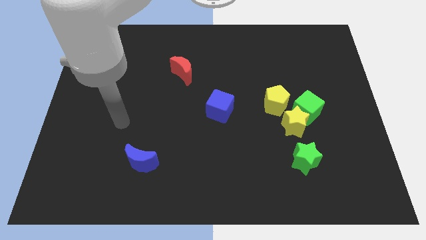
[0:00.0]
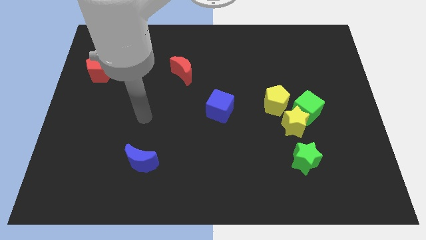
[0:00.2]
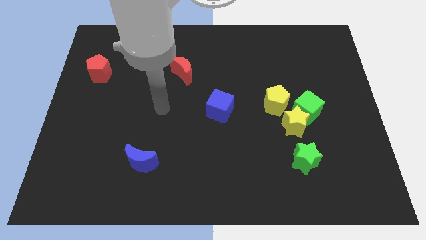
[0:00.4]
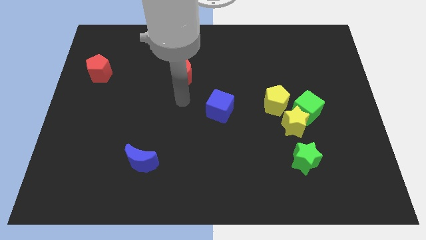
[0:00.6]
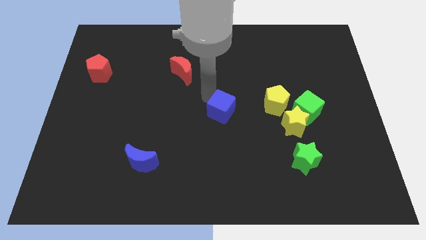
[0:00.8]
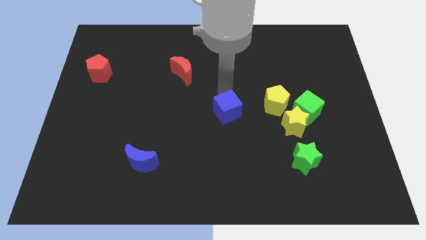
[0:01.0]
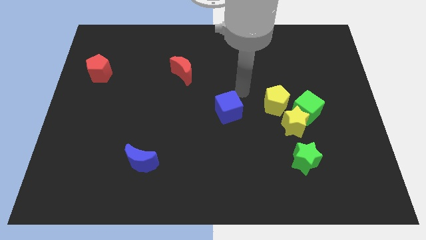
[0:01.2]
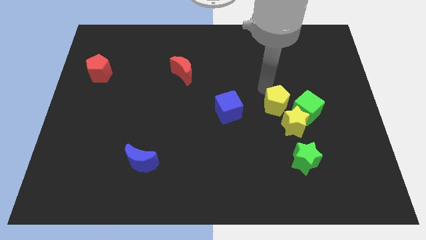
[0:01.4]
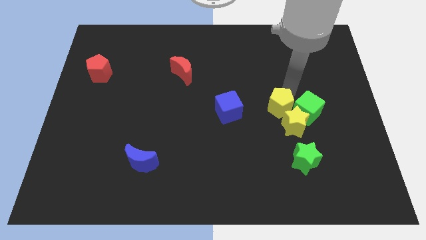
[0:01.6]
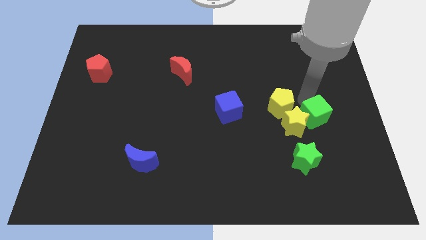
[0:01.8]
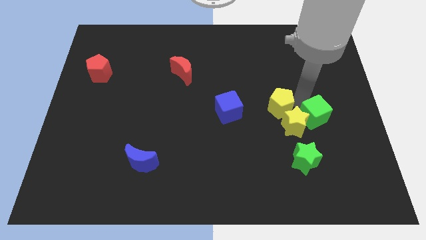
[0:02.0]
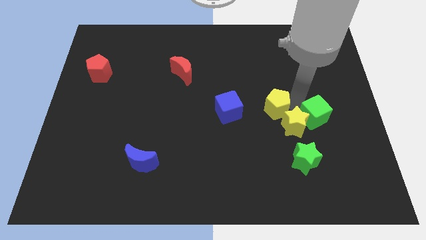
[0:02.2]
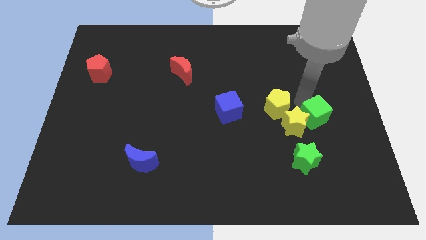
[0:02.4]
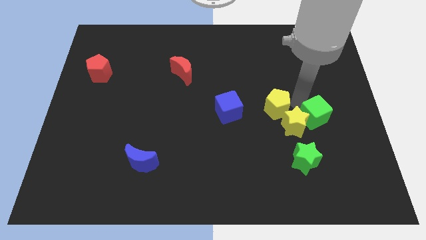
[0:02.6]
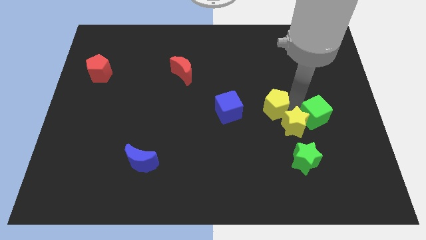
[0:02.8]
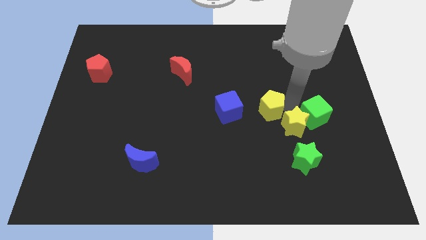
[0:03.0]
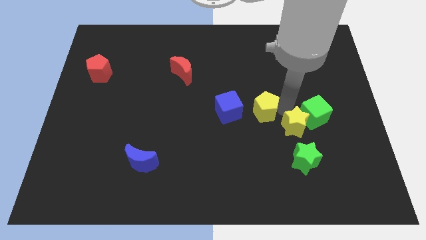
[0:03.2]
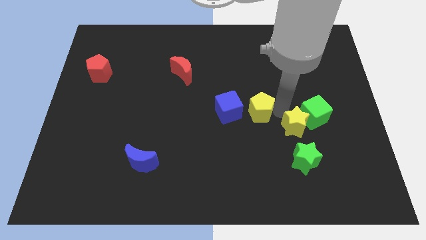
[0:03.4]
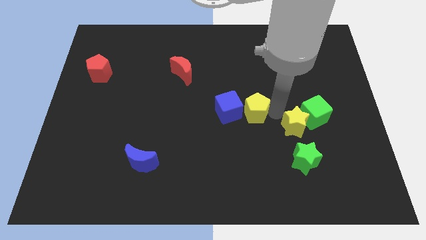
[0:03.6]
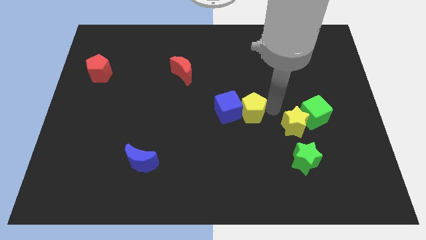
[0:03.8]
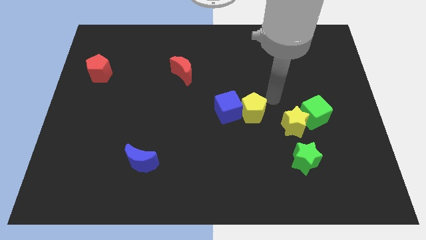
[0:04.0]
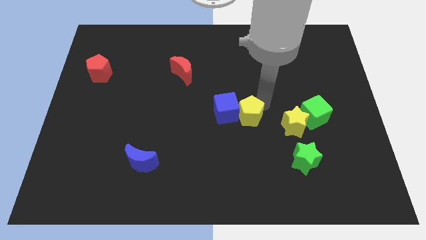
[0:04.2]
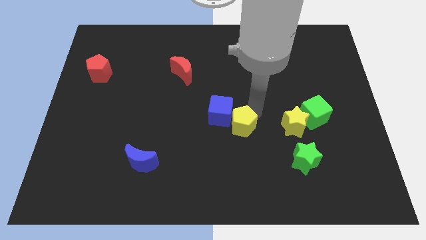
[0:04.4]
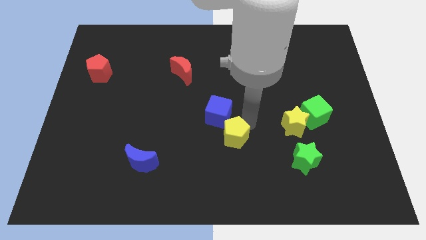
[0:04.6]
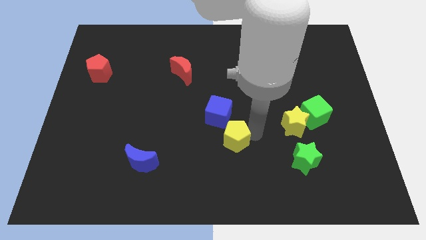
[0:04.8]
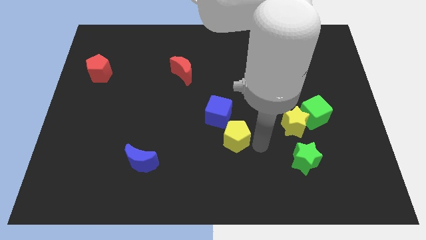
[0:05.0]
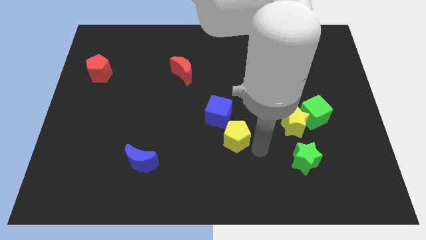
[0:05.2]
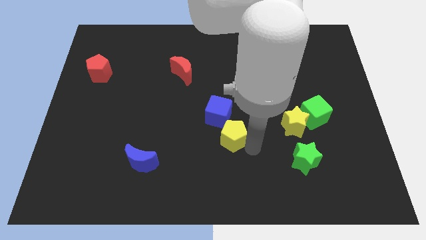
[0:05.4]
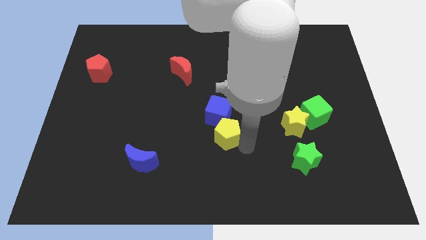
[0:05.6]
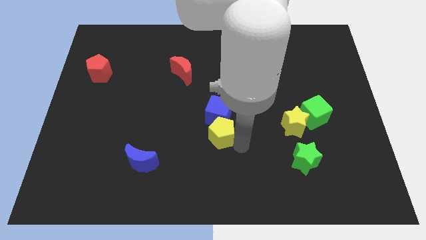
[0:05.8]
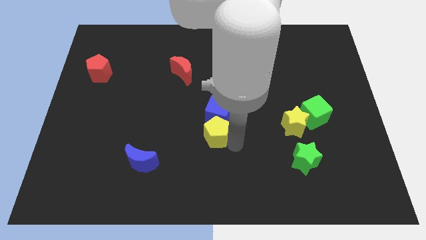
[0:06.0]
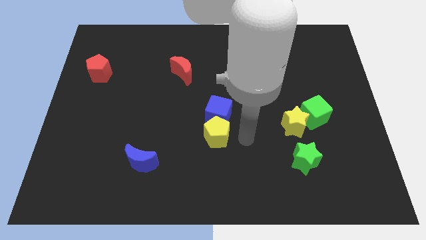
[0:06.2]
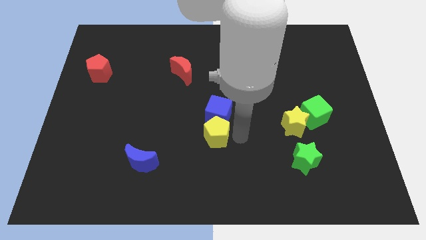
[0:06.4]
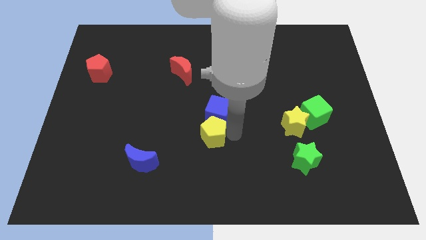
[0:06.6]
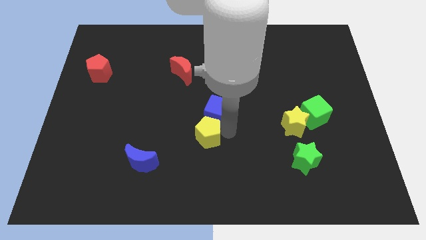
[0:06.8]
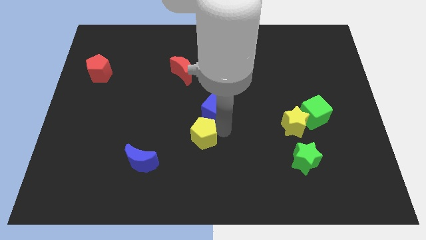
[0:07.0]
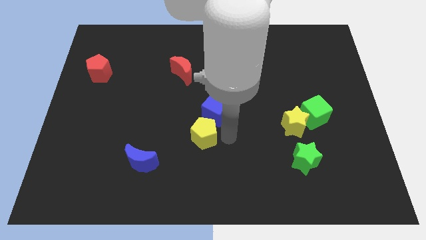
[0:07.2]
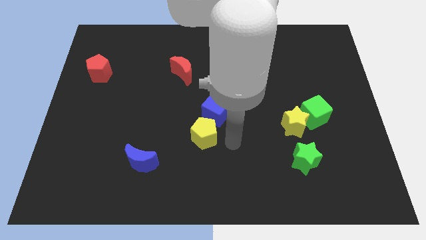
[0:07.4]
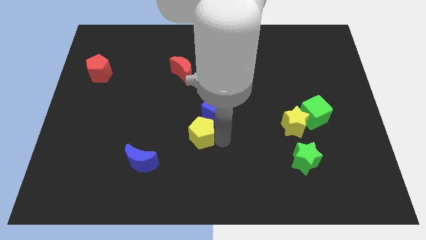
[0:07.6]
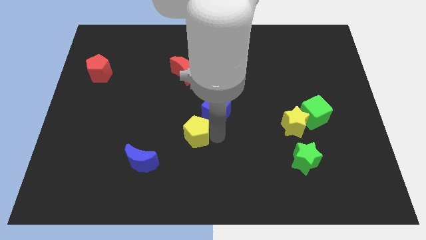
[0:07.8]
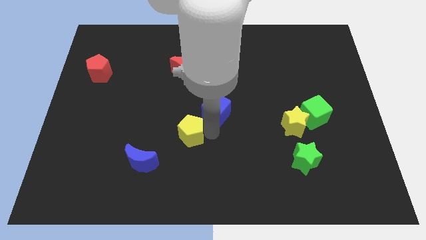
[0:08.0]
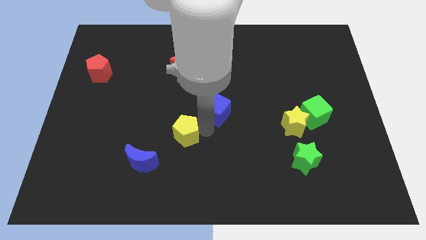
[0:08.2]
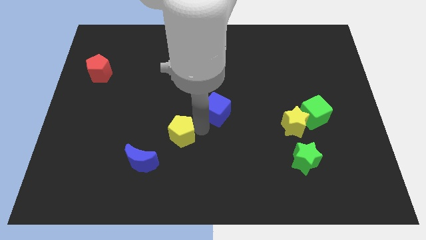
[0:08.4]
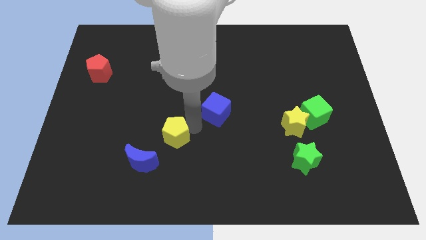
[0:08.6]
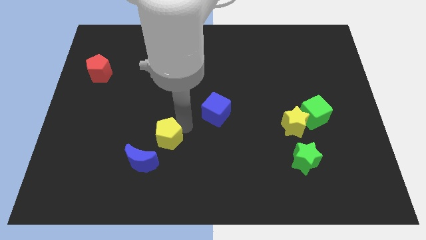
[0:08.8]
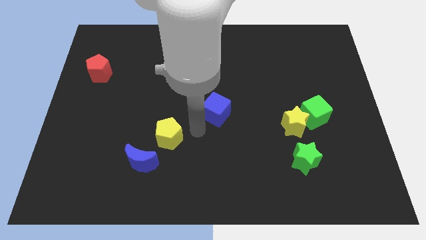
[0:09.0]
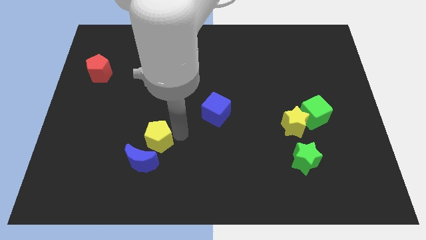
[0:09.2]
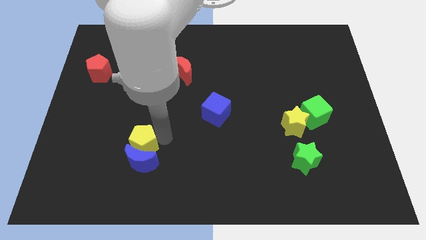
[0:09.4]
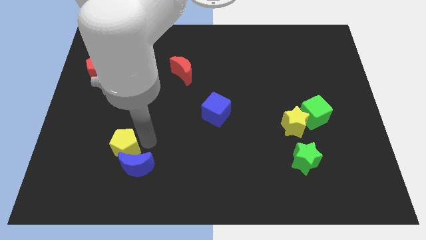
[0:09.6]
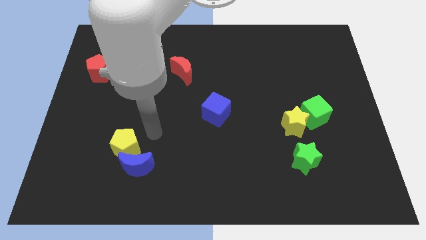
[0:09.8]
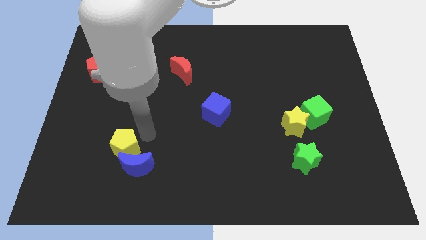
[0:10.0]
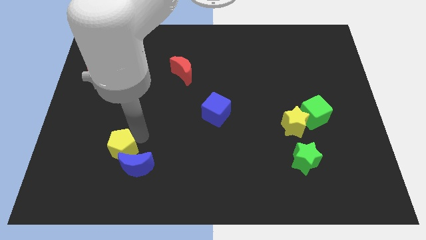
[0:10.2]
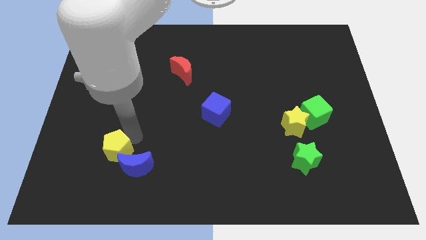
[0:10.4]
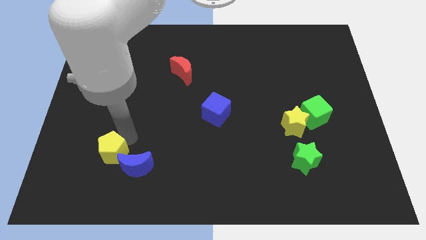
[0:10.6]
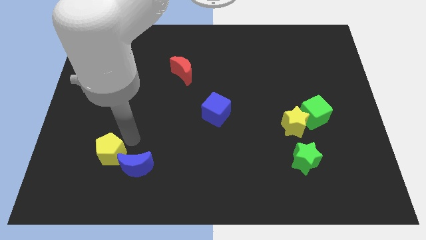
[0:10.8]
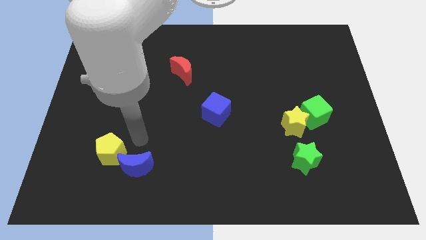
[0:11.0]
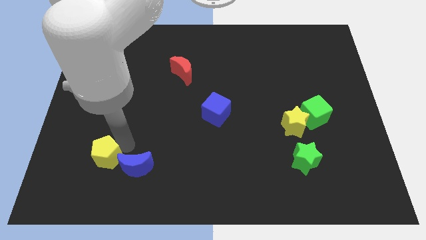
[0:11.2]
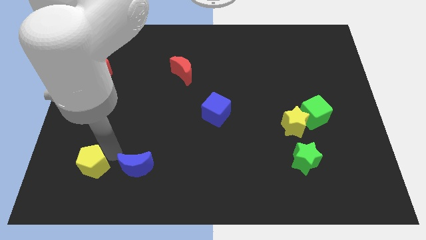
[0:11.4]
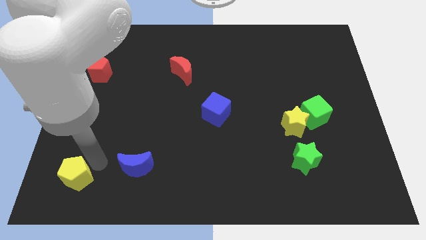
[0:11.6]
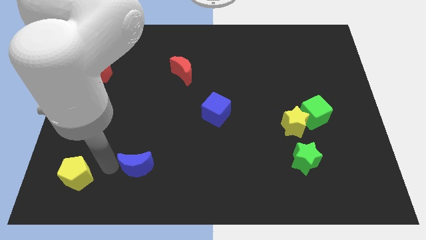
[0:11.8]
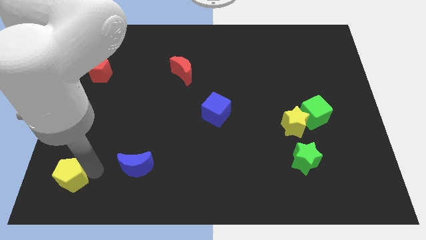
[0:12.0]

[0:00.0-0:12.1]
put the yellow pentagon to the bottom left of the board
